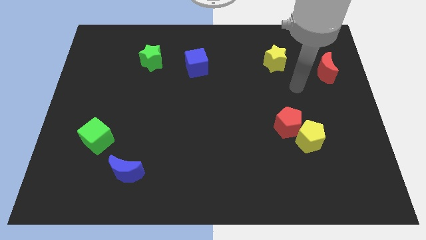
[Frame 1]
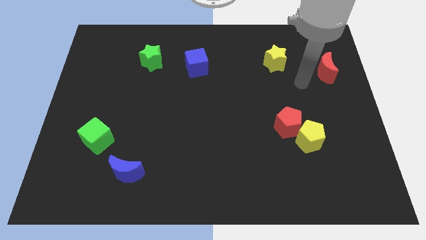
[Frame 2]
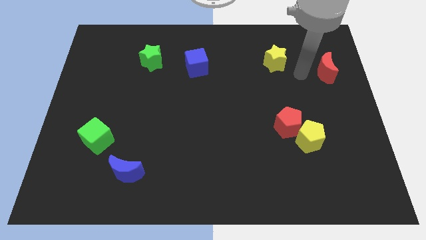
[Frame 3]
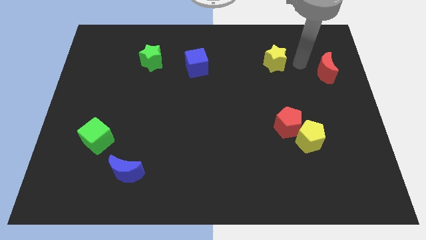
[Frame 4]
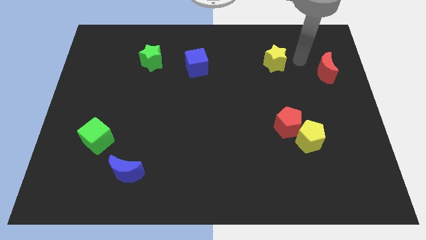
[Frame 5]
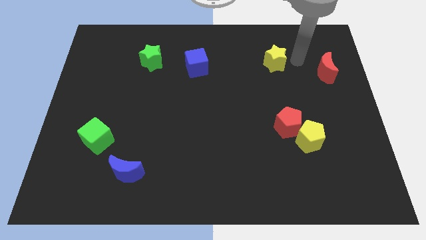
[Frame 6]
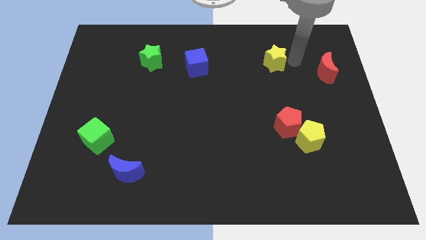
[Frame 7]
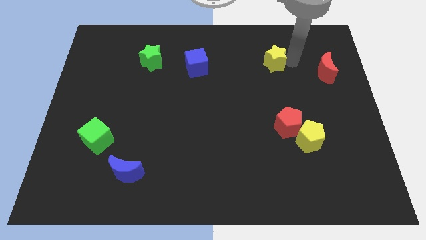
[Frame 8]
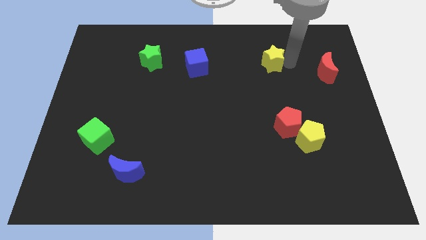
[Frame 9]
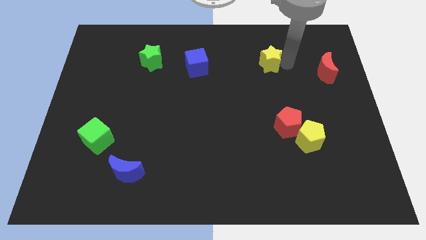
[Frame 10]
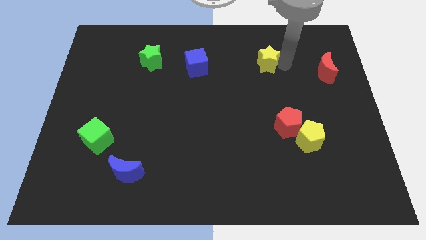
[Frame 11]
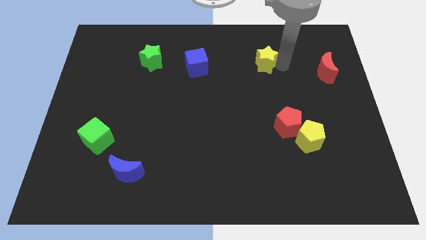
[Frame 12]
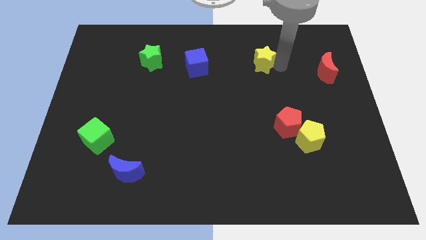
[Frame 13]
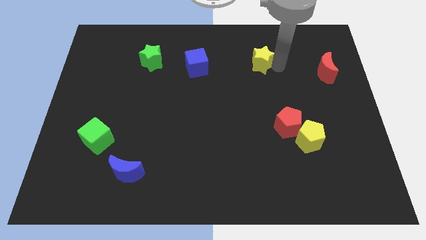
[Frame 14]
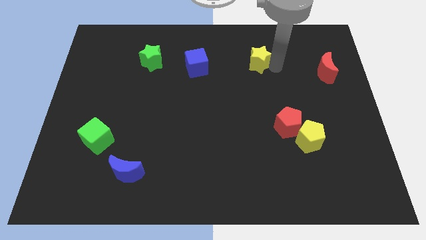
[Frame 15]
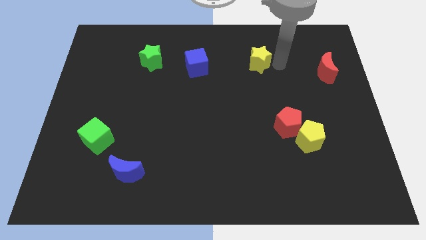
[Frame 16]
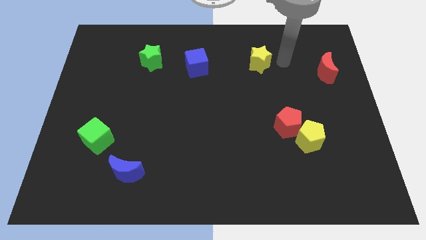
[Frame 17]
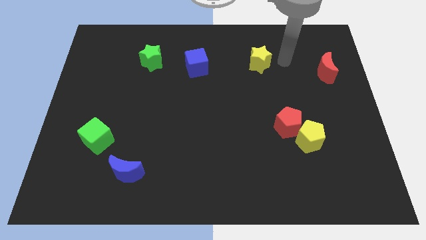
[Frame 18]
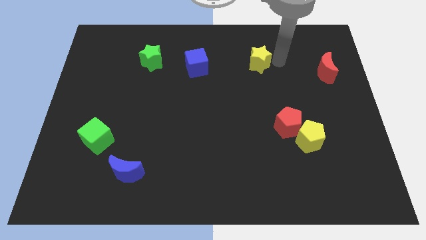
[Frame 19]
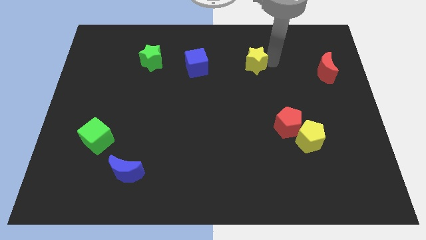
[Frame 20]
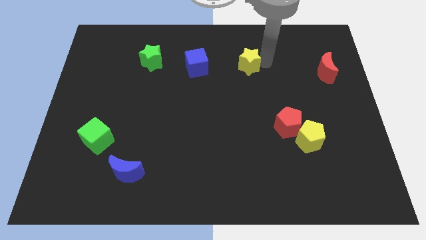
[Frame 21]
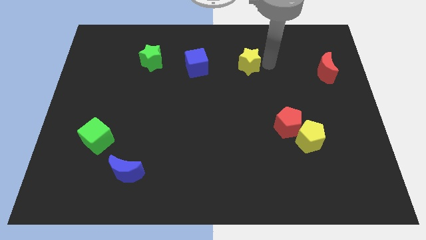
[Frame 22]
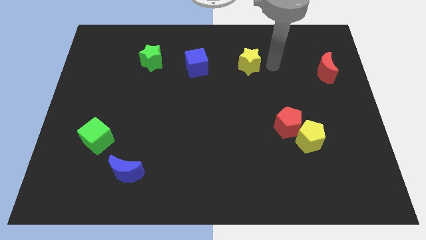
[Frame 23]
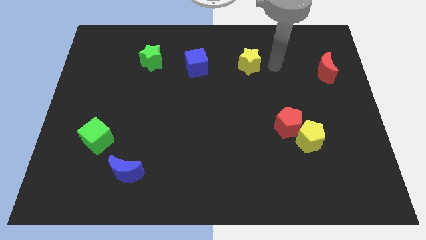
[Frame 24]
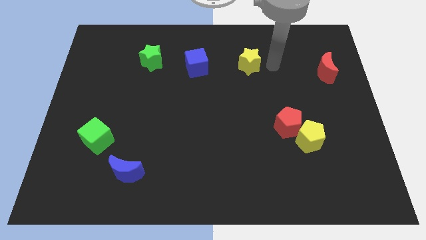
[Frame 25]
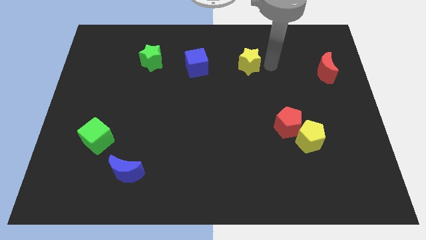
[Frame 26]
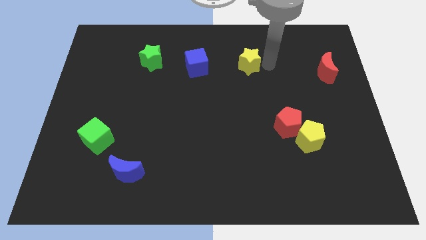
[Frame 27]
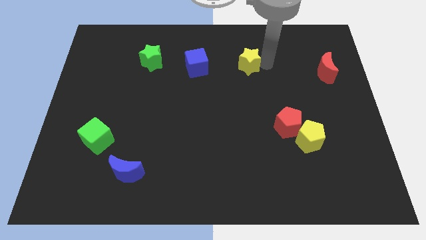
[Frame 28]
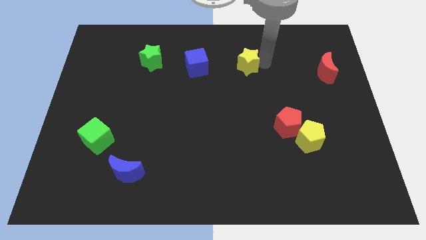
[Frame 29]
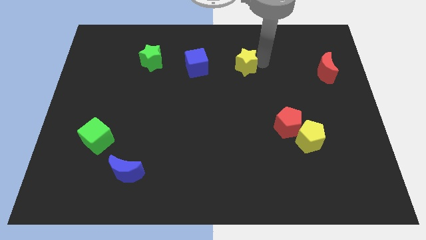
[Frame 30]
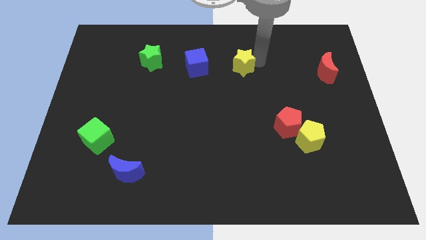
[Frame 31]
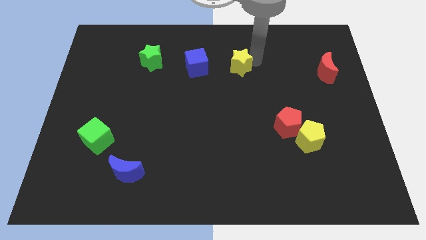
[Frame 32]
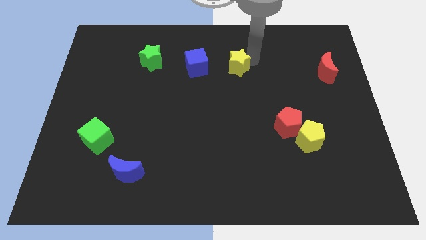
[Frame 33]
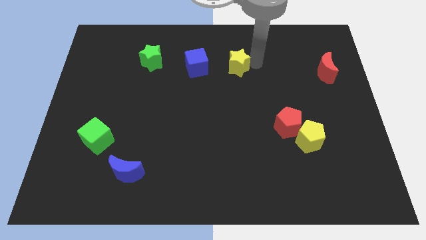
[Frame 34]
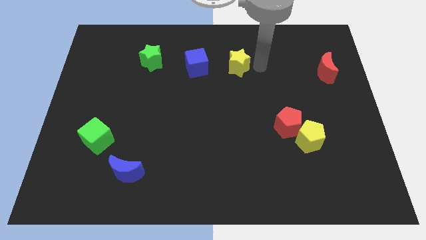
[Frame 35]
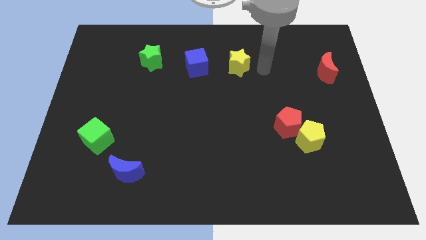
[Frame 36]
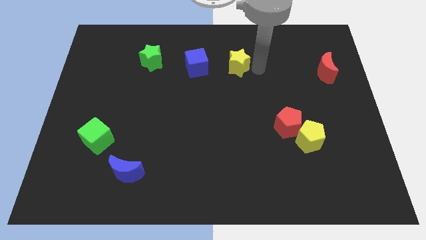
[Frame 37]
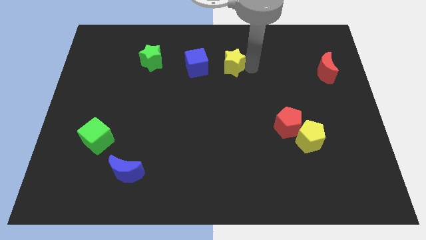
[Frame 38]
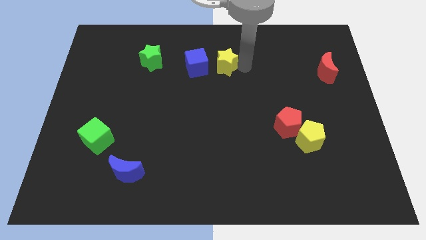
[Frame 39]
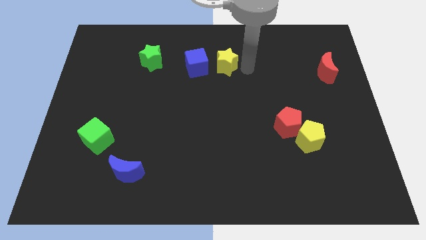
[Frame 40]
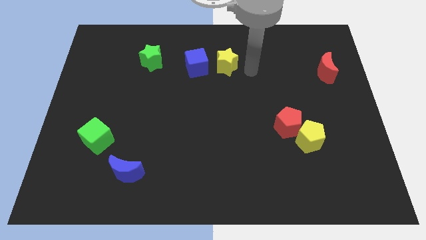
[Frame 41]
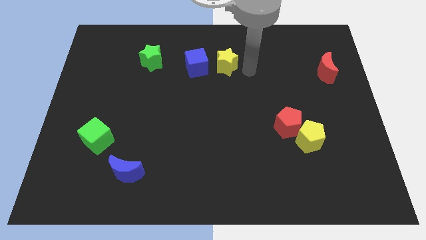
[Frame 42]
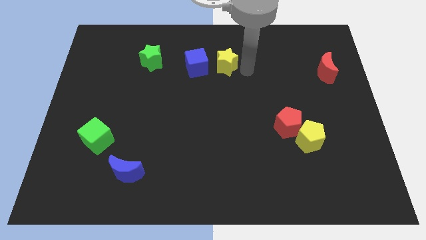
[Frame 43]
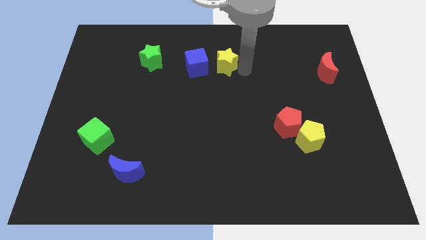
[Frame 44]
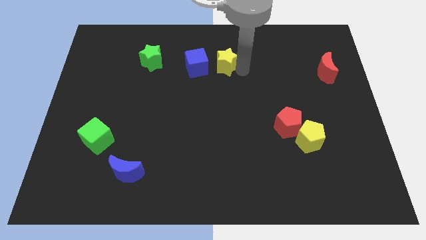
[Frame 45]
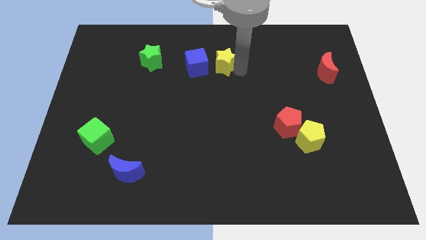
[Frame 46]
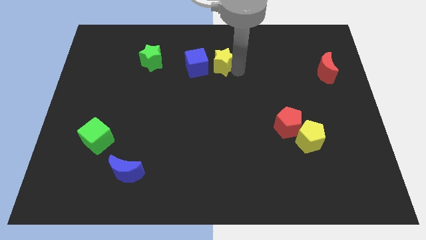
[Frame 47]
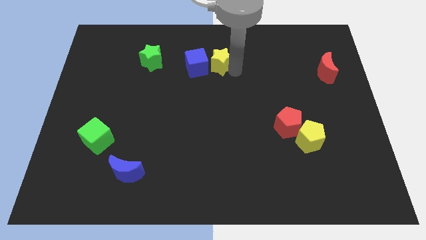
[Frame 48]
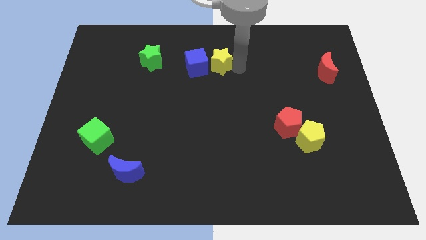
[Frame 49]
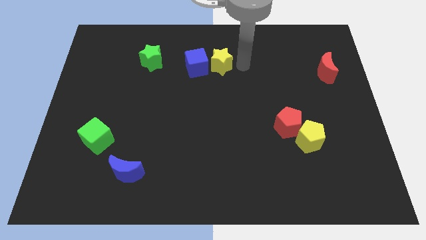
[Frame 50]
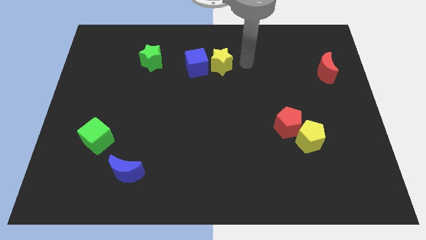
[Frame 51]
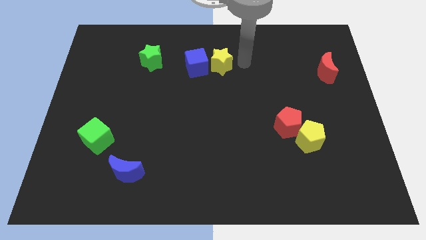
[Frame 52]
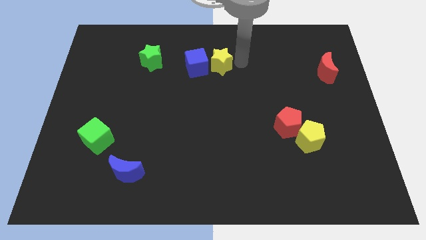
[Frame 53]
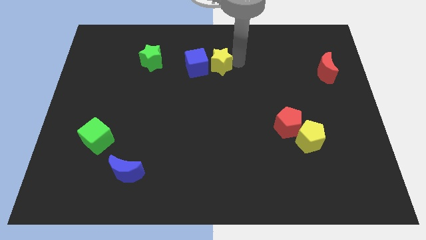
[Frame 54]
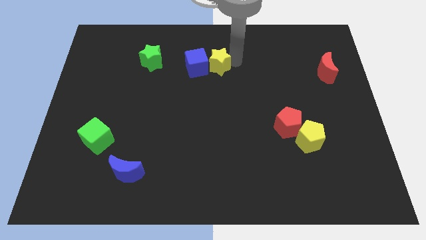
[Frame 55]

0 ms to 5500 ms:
move the yellow star close to the blue cube

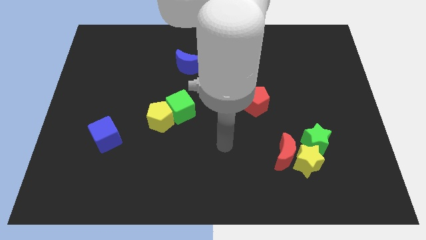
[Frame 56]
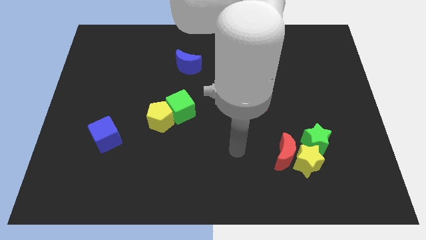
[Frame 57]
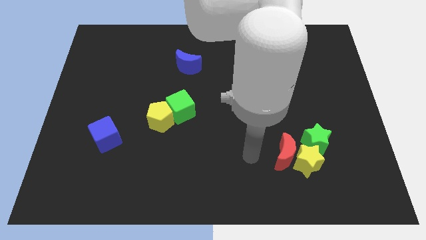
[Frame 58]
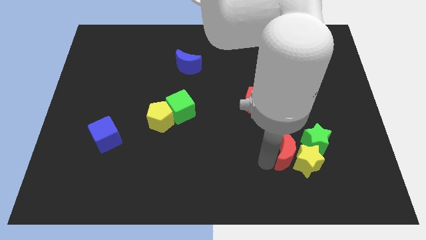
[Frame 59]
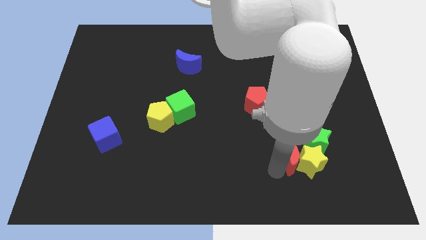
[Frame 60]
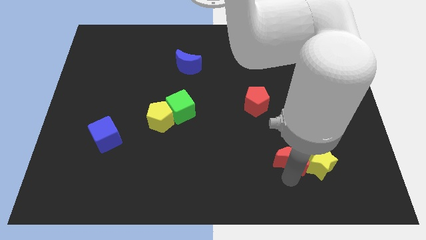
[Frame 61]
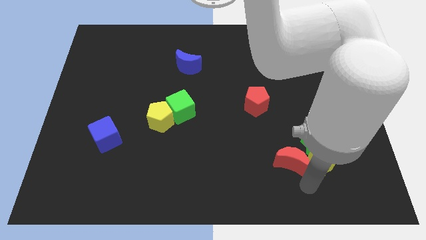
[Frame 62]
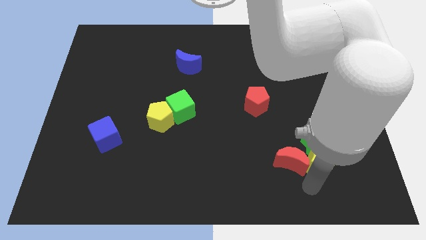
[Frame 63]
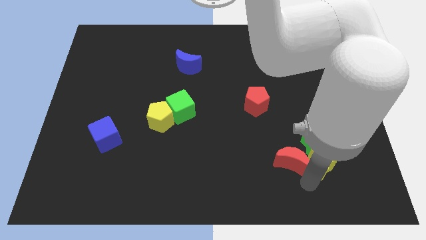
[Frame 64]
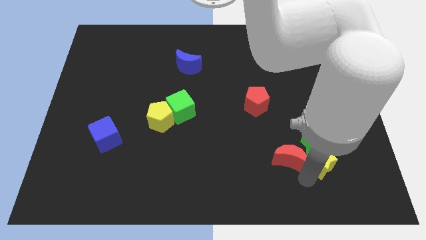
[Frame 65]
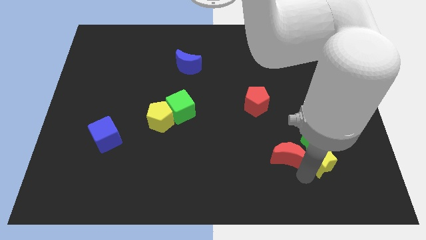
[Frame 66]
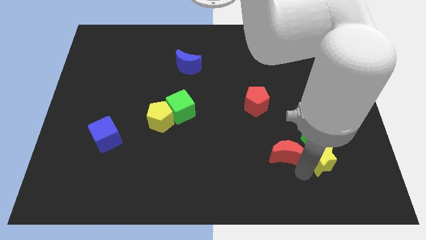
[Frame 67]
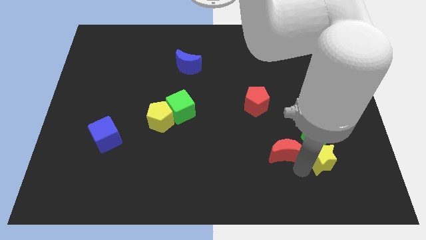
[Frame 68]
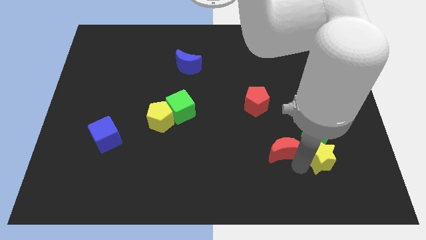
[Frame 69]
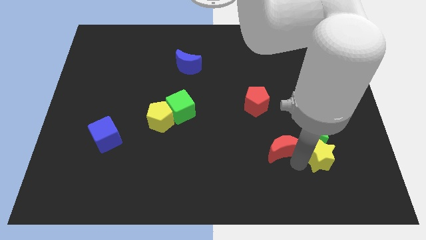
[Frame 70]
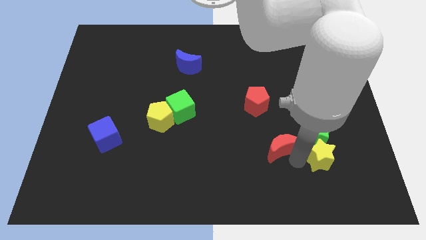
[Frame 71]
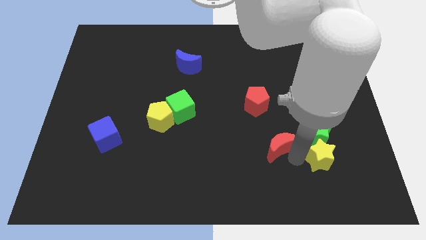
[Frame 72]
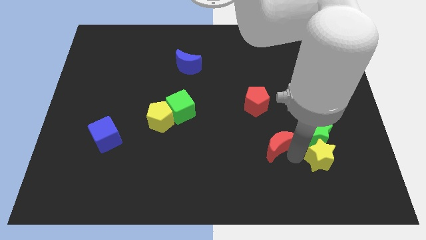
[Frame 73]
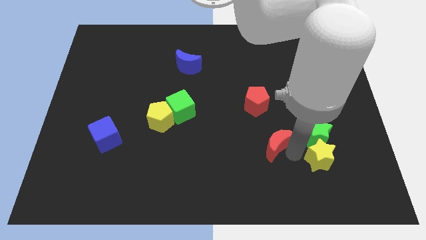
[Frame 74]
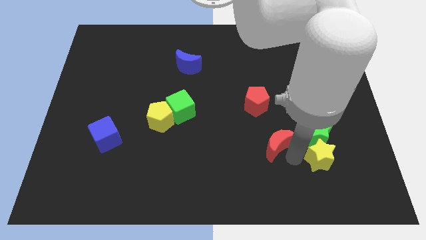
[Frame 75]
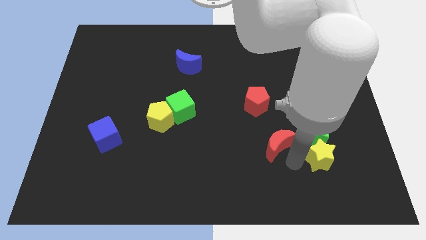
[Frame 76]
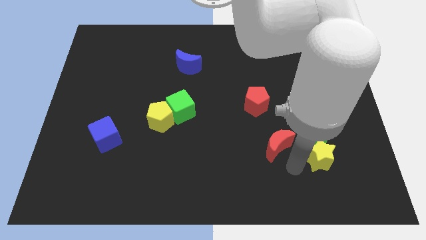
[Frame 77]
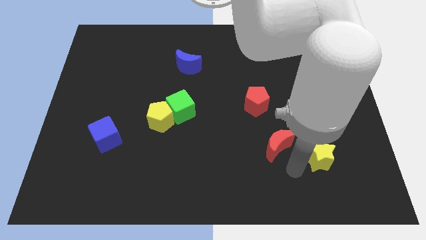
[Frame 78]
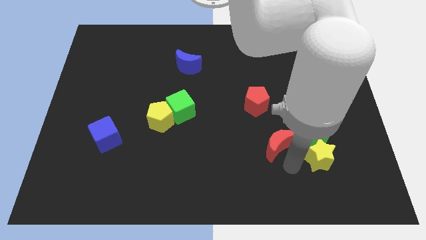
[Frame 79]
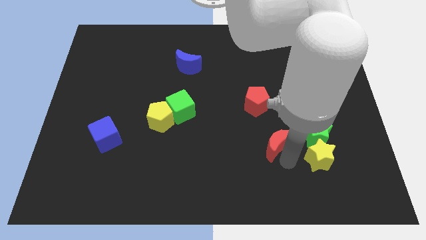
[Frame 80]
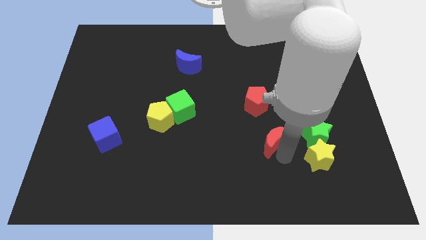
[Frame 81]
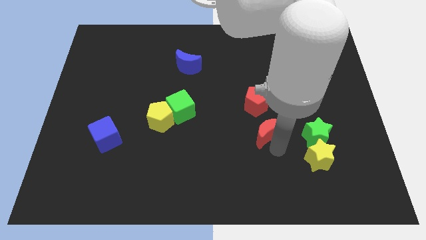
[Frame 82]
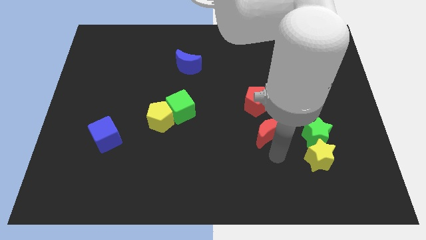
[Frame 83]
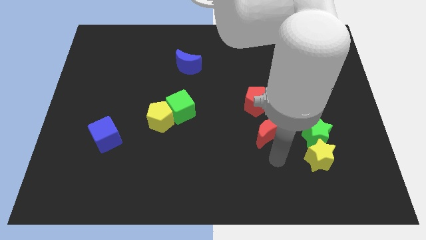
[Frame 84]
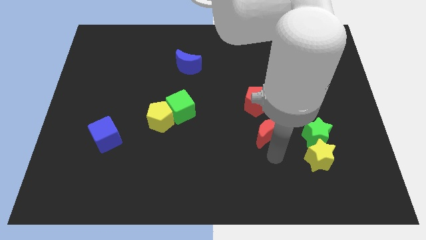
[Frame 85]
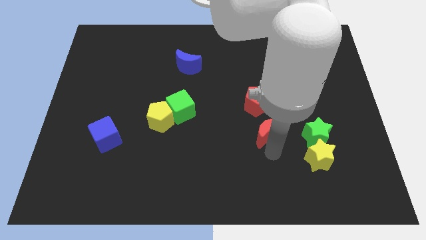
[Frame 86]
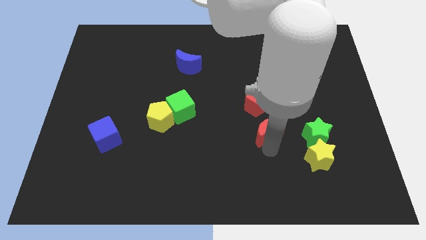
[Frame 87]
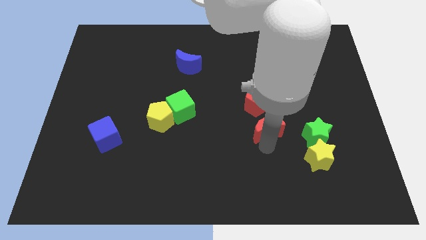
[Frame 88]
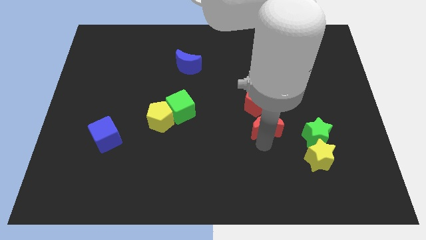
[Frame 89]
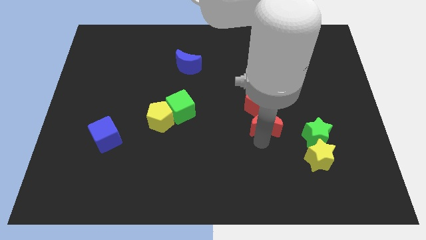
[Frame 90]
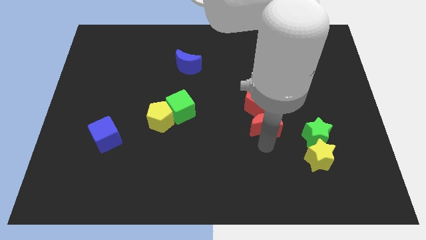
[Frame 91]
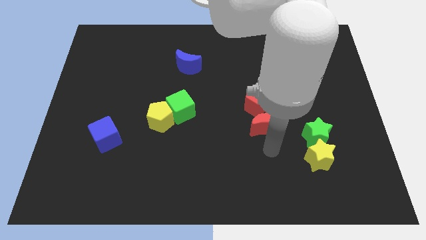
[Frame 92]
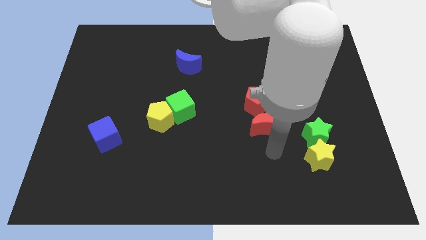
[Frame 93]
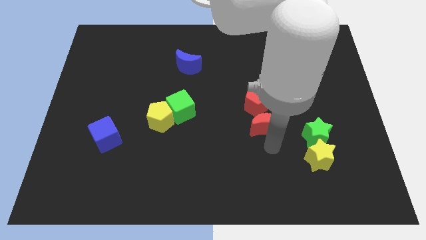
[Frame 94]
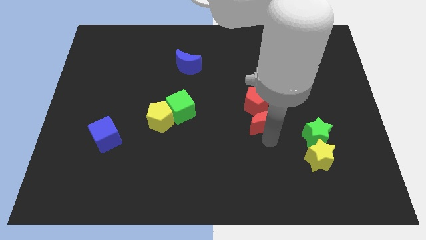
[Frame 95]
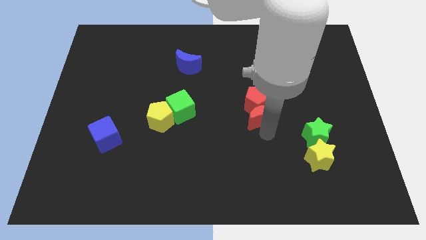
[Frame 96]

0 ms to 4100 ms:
move the red moon to the red pentagon
